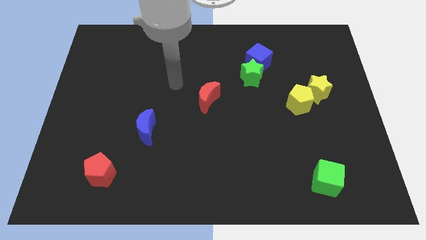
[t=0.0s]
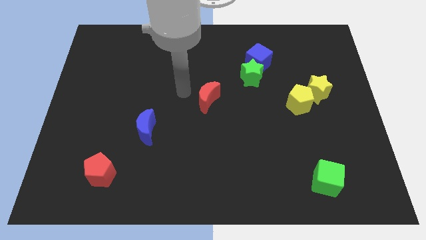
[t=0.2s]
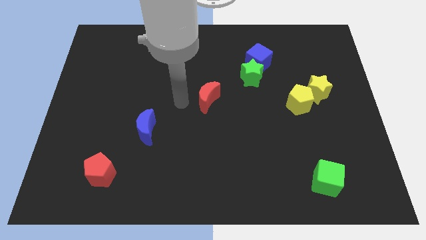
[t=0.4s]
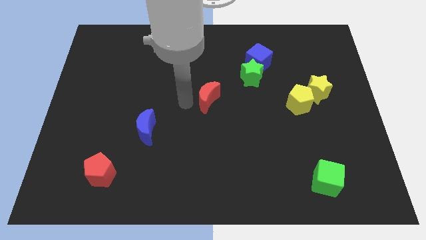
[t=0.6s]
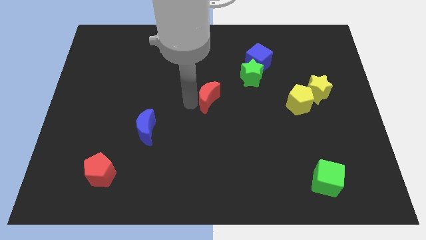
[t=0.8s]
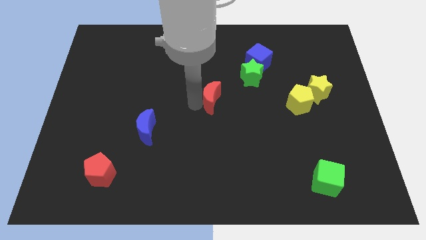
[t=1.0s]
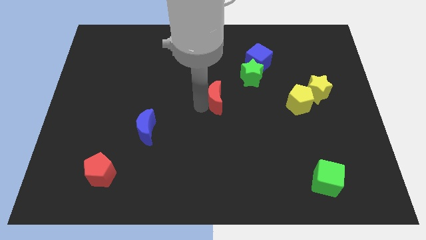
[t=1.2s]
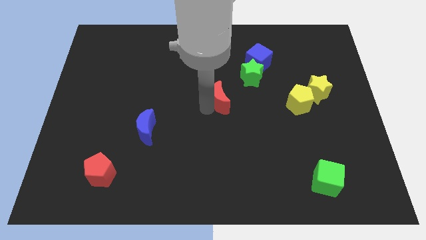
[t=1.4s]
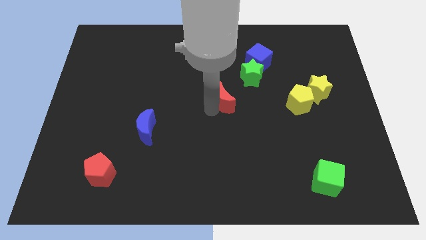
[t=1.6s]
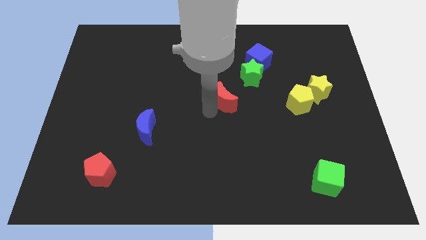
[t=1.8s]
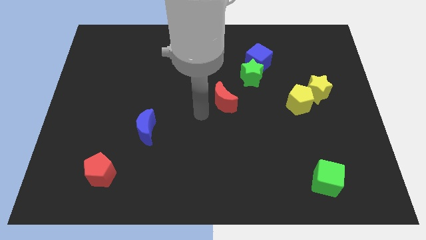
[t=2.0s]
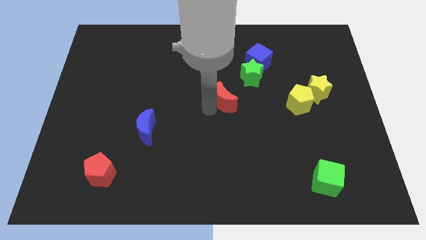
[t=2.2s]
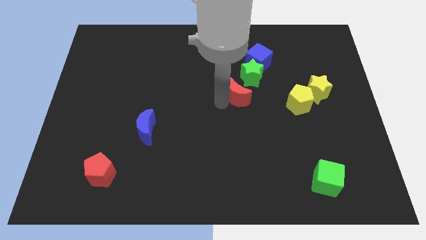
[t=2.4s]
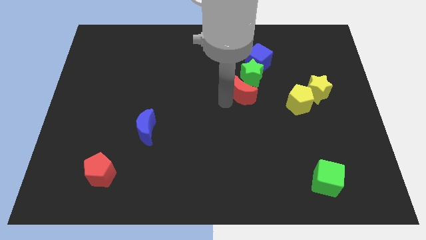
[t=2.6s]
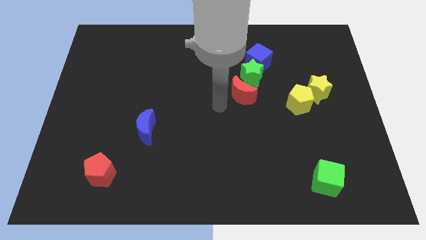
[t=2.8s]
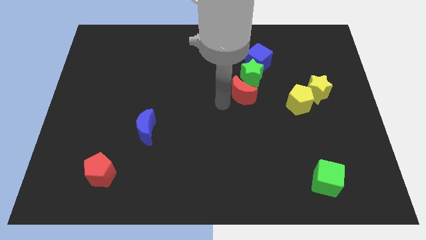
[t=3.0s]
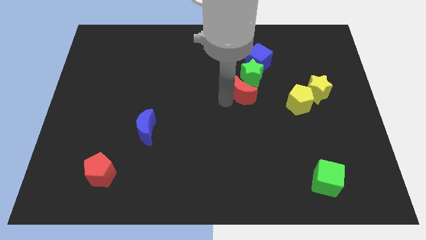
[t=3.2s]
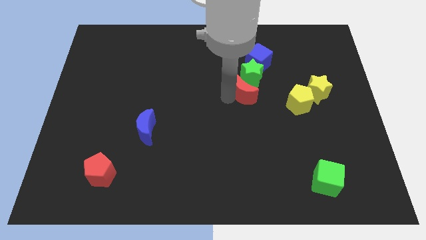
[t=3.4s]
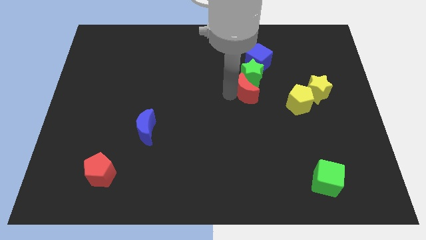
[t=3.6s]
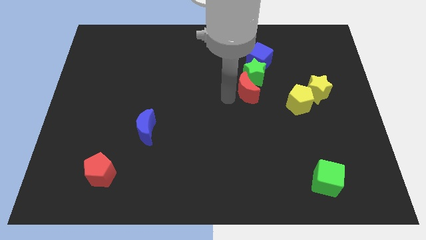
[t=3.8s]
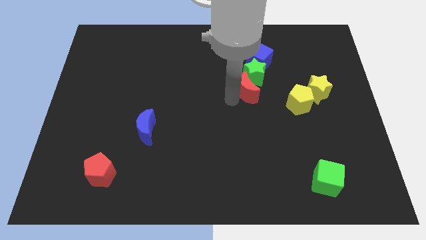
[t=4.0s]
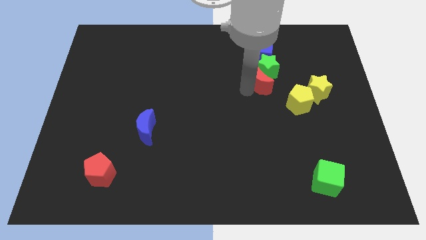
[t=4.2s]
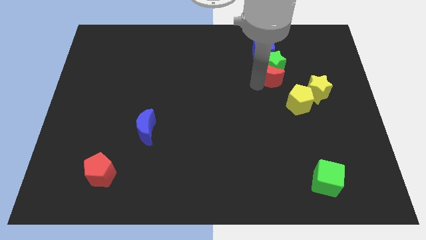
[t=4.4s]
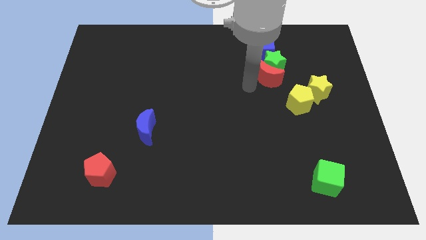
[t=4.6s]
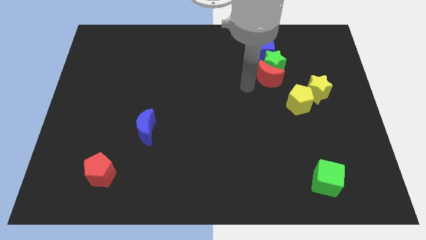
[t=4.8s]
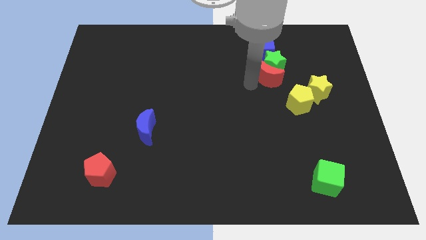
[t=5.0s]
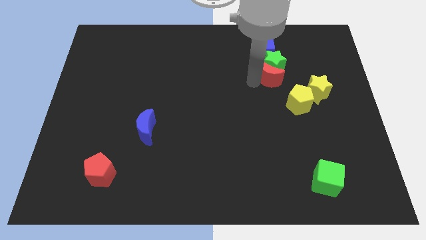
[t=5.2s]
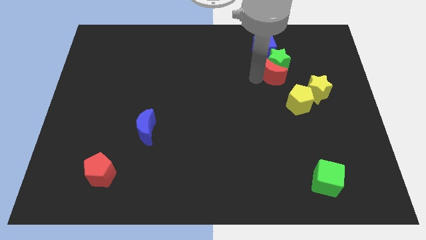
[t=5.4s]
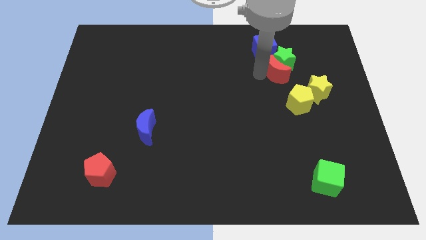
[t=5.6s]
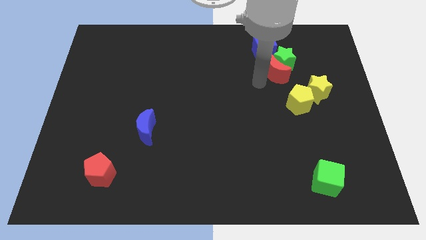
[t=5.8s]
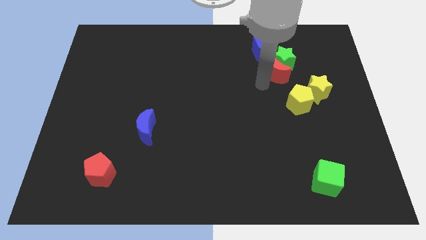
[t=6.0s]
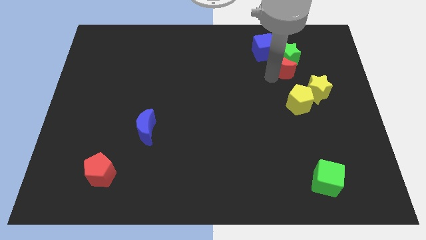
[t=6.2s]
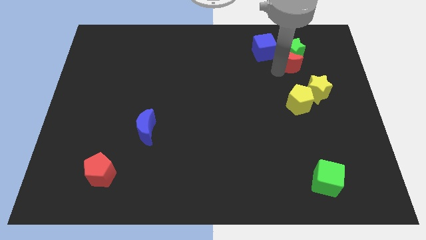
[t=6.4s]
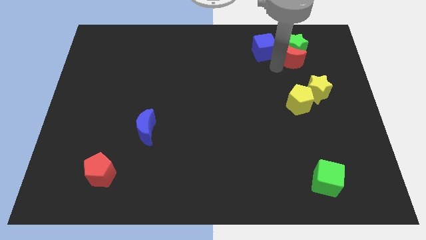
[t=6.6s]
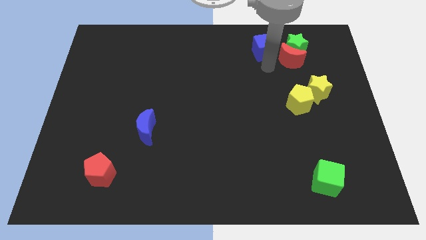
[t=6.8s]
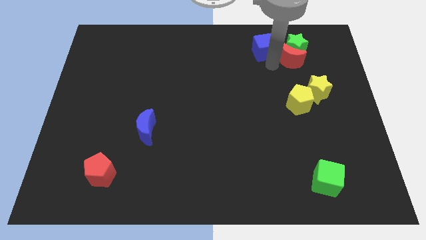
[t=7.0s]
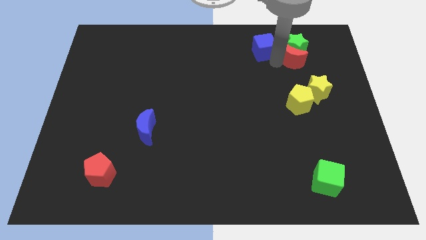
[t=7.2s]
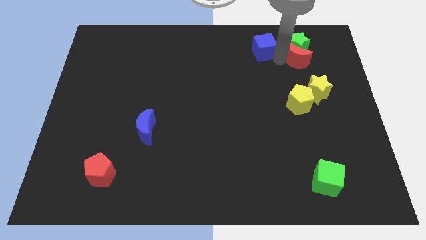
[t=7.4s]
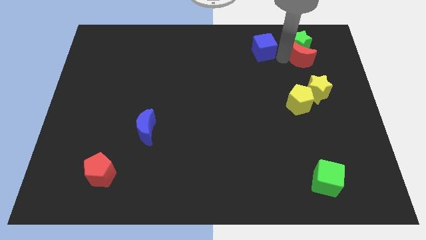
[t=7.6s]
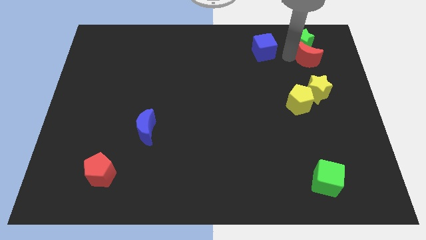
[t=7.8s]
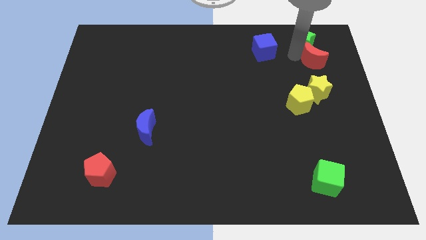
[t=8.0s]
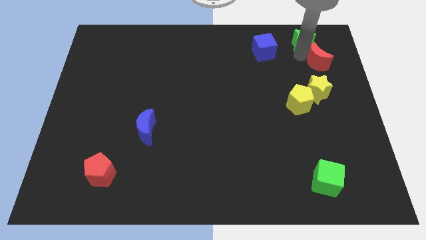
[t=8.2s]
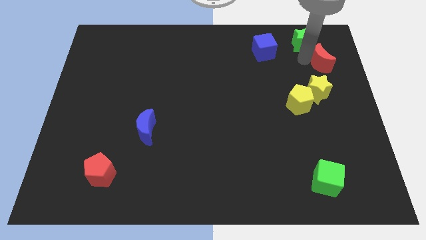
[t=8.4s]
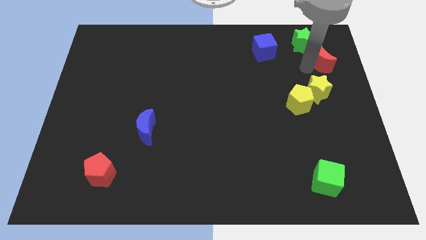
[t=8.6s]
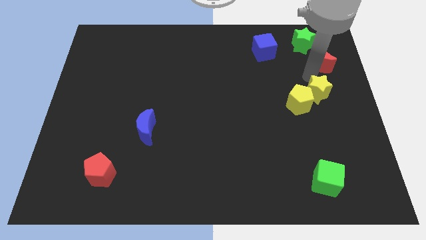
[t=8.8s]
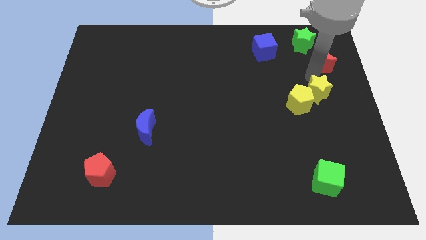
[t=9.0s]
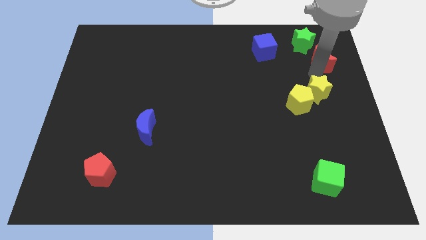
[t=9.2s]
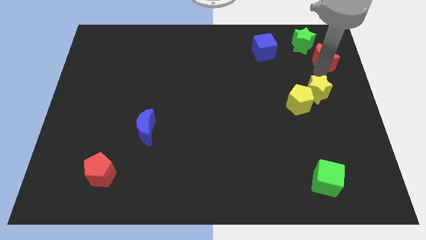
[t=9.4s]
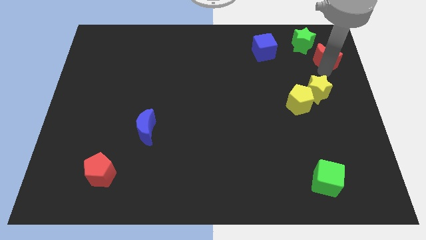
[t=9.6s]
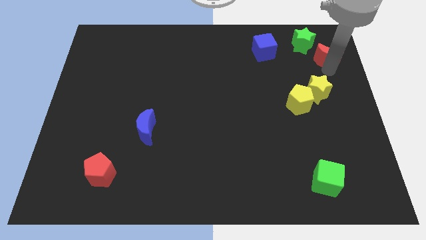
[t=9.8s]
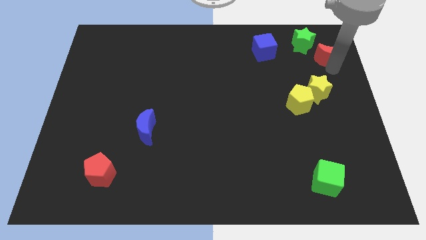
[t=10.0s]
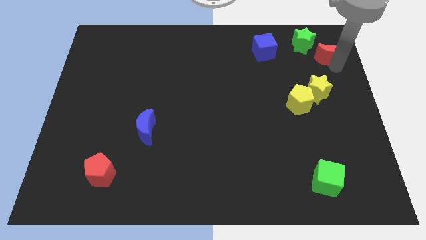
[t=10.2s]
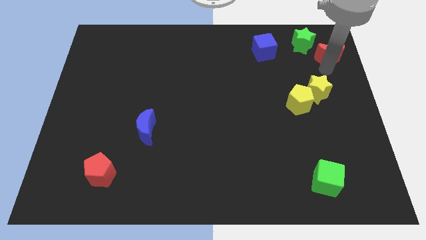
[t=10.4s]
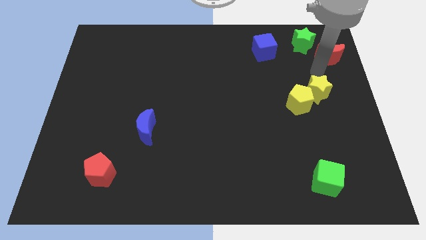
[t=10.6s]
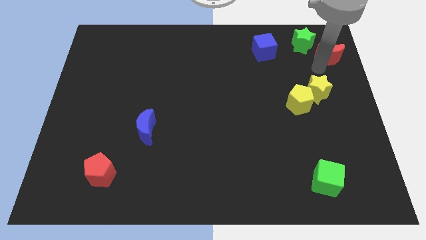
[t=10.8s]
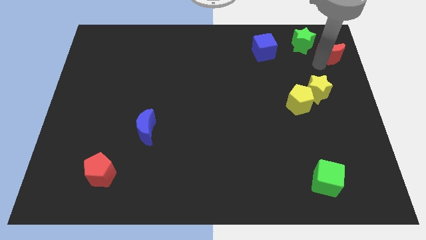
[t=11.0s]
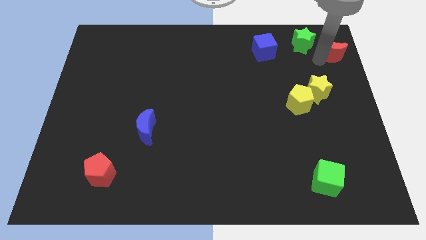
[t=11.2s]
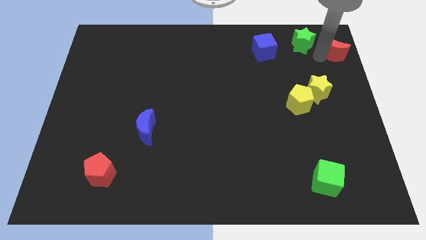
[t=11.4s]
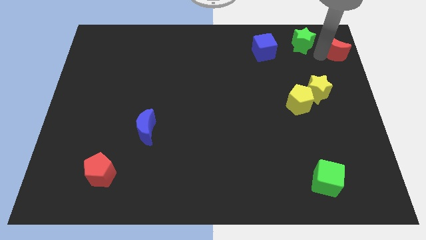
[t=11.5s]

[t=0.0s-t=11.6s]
slide the red moon to the top right

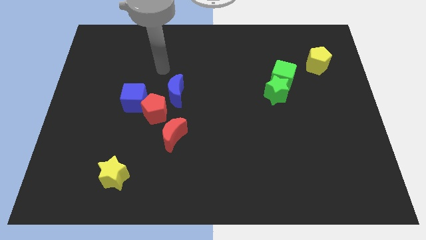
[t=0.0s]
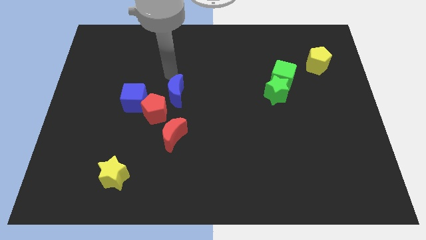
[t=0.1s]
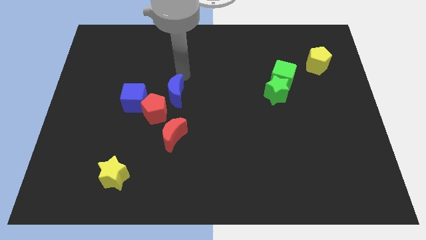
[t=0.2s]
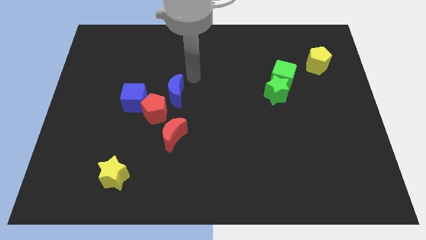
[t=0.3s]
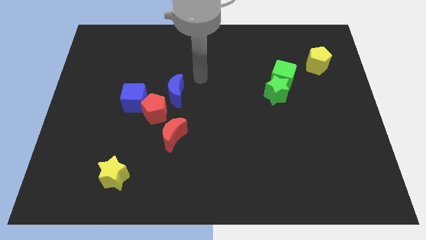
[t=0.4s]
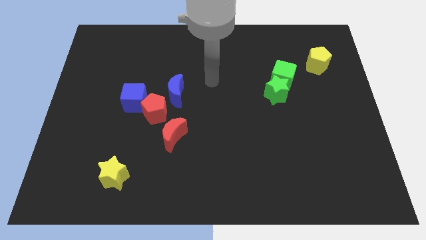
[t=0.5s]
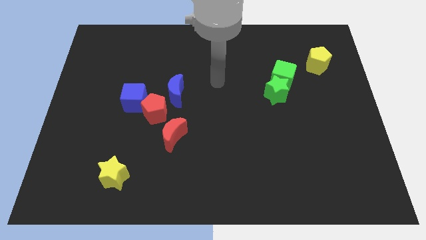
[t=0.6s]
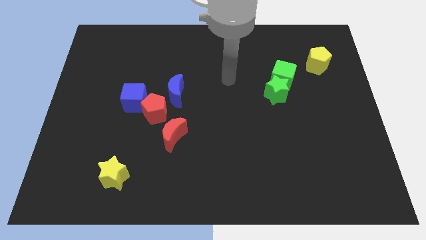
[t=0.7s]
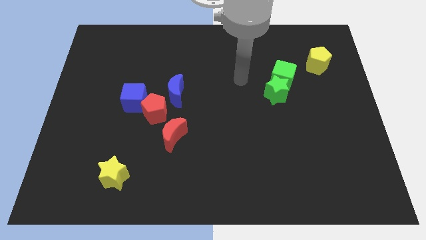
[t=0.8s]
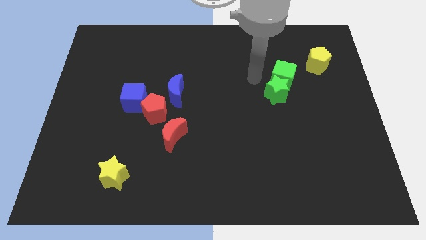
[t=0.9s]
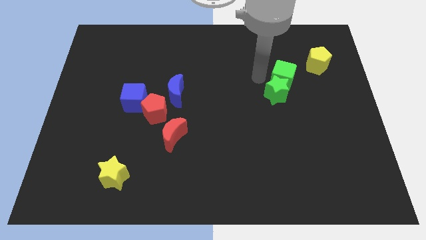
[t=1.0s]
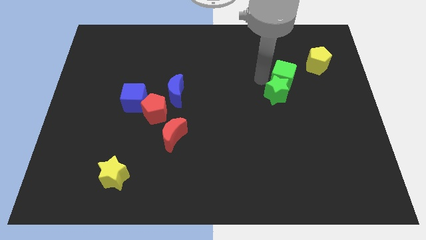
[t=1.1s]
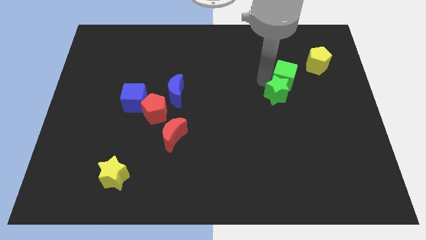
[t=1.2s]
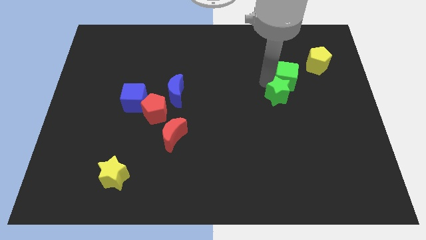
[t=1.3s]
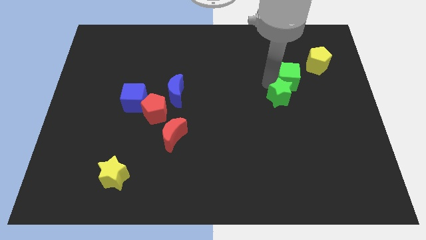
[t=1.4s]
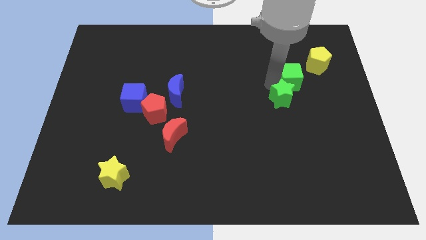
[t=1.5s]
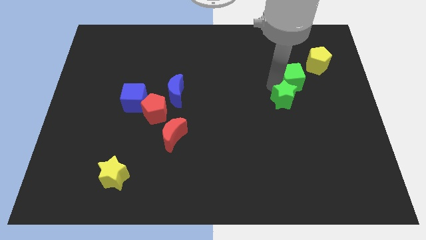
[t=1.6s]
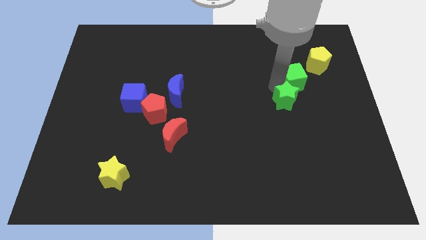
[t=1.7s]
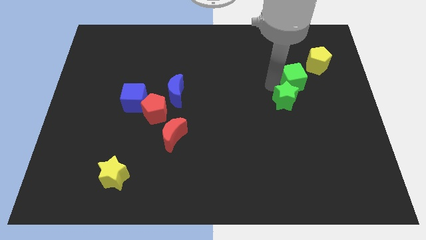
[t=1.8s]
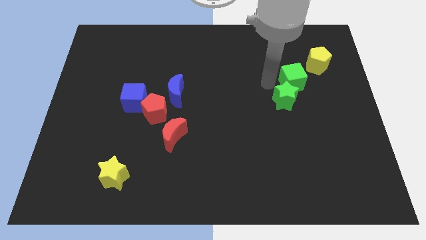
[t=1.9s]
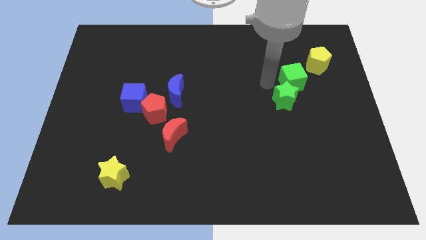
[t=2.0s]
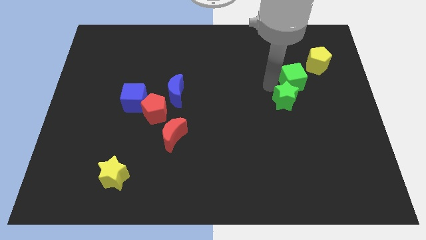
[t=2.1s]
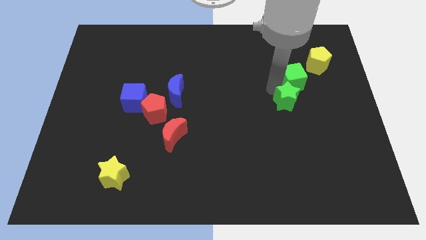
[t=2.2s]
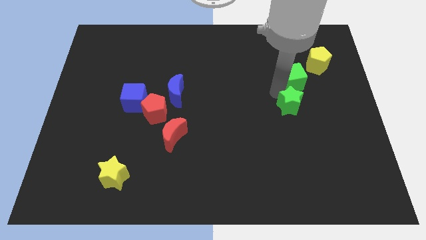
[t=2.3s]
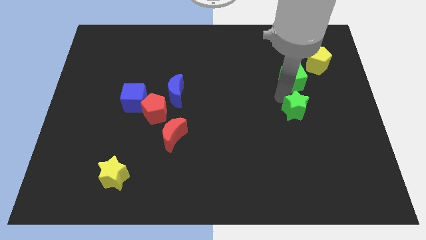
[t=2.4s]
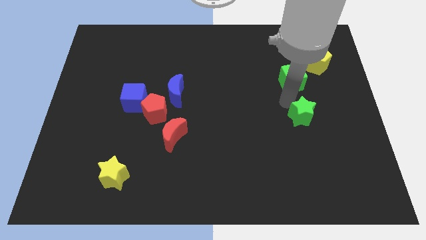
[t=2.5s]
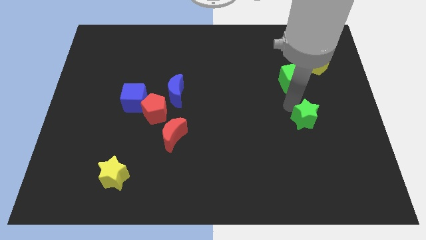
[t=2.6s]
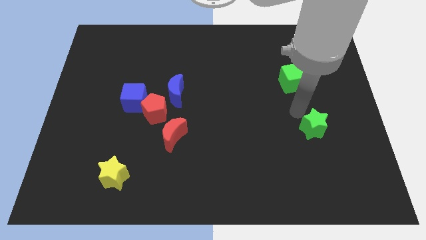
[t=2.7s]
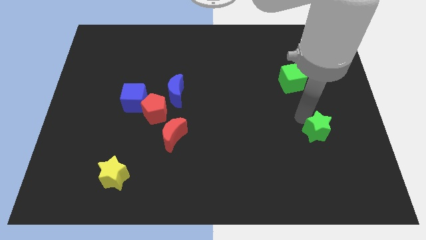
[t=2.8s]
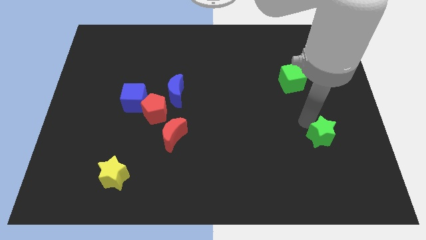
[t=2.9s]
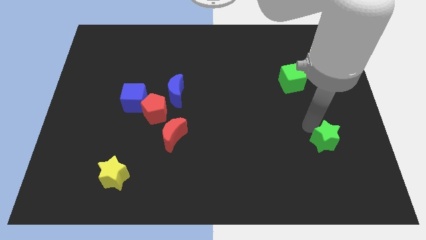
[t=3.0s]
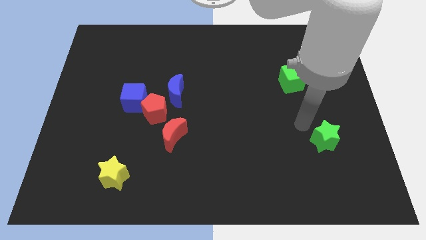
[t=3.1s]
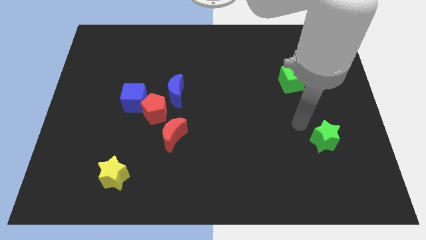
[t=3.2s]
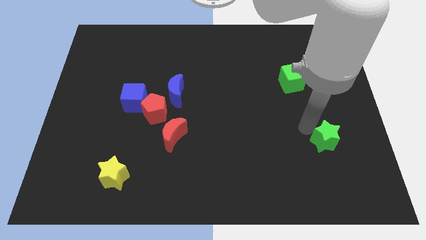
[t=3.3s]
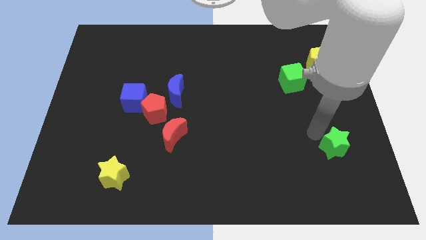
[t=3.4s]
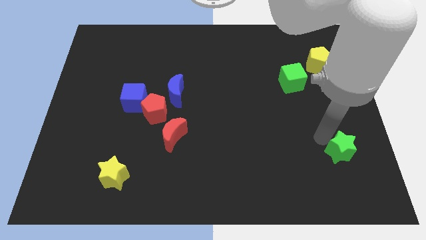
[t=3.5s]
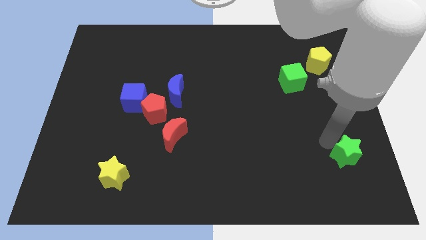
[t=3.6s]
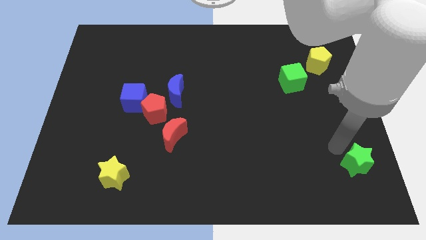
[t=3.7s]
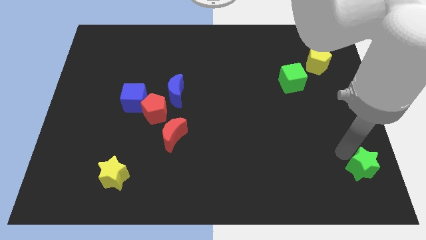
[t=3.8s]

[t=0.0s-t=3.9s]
slide the green star to the bottom right
